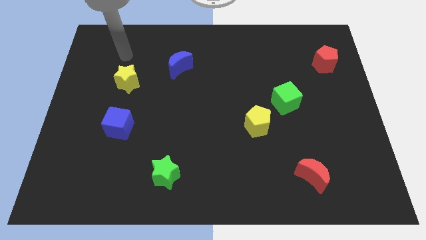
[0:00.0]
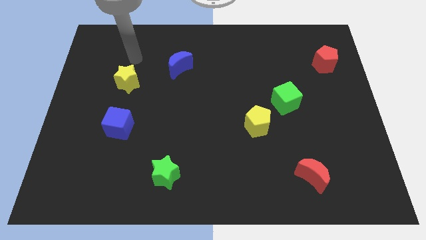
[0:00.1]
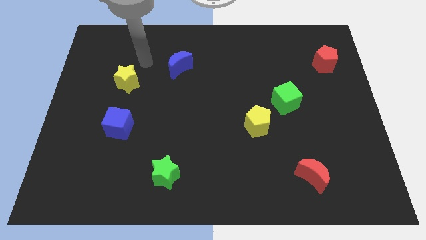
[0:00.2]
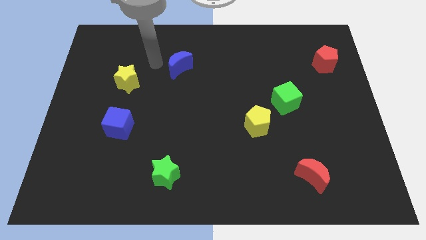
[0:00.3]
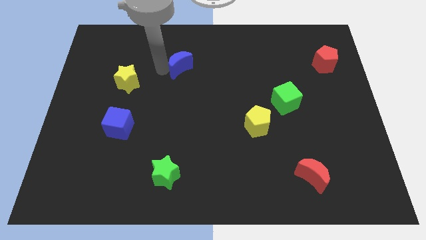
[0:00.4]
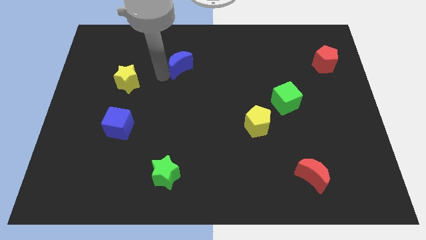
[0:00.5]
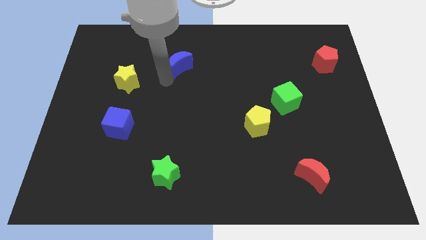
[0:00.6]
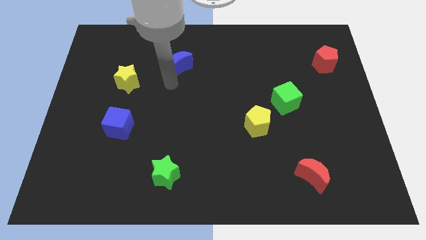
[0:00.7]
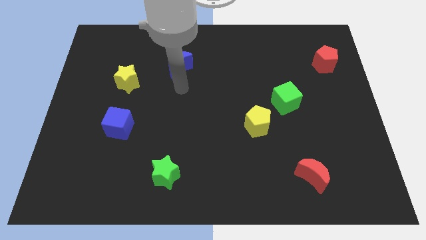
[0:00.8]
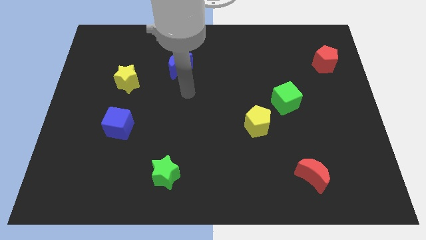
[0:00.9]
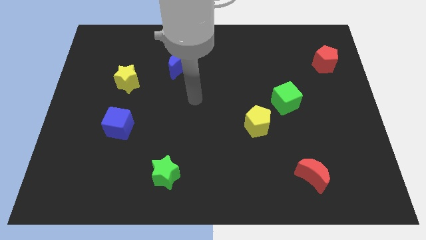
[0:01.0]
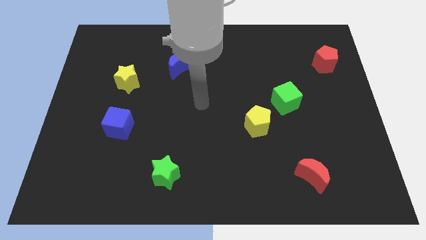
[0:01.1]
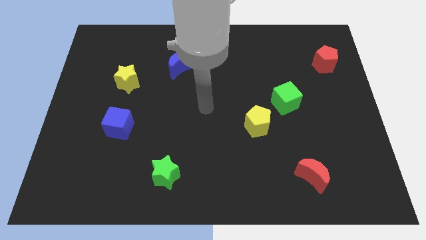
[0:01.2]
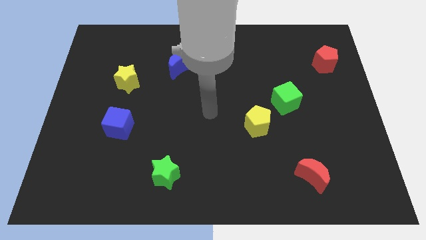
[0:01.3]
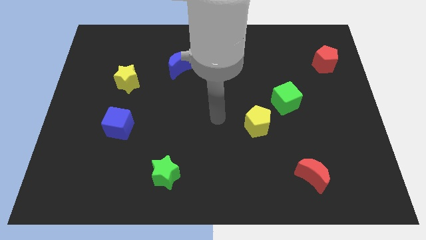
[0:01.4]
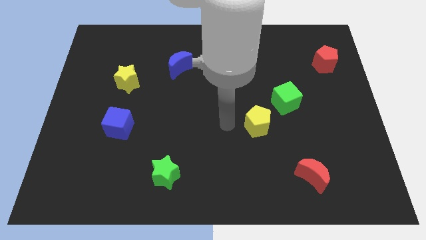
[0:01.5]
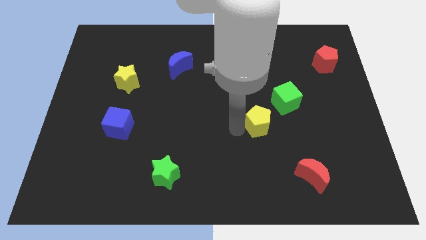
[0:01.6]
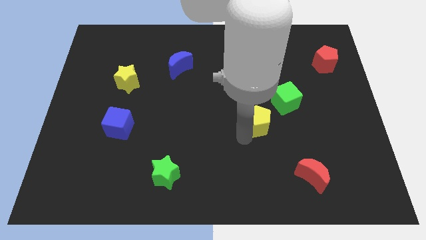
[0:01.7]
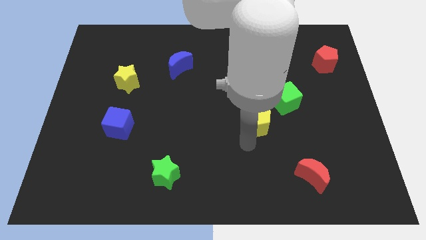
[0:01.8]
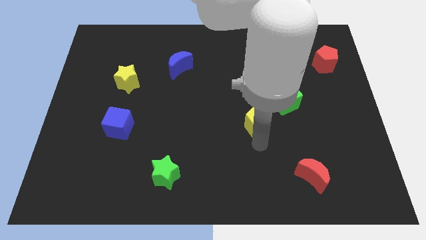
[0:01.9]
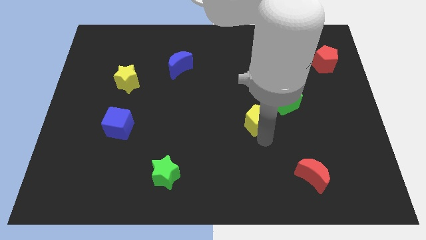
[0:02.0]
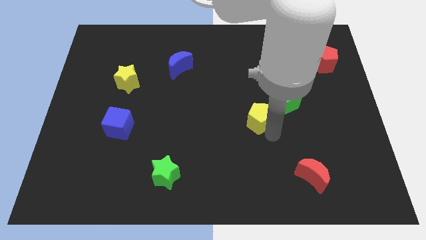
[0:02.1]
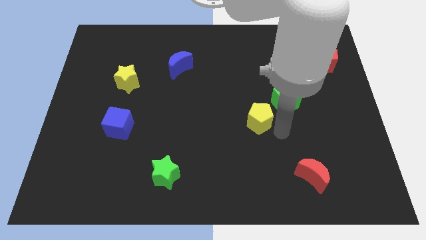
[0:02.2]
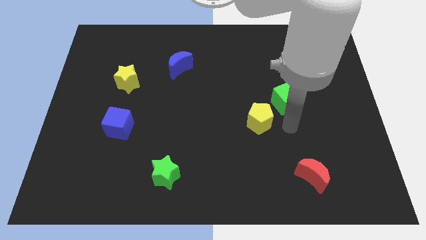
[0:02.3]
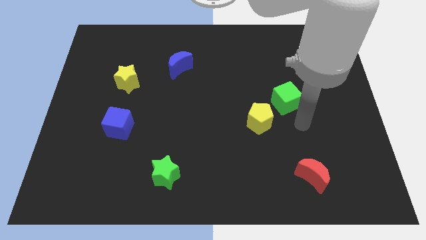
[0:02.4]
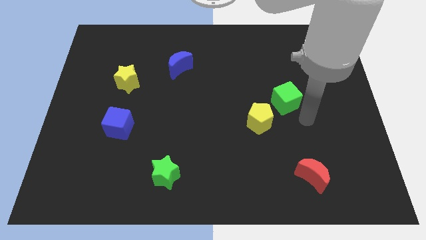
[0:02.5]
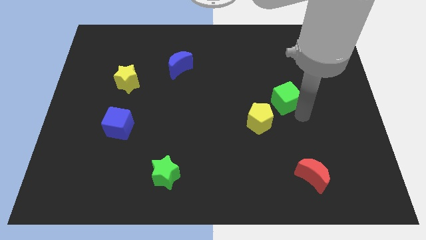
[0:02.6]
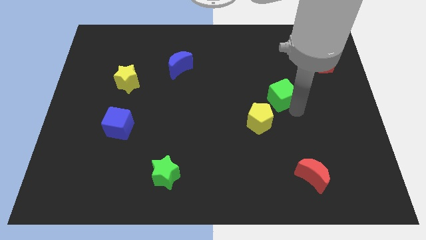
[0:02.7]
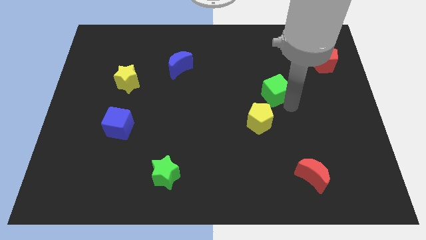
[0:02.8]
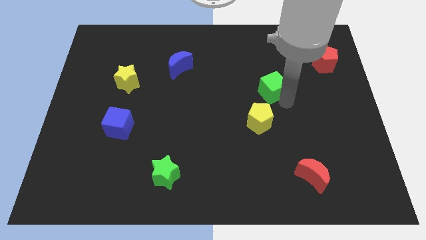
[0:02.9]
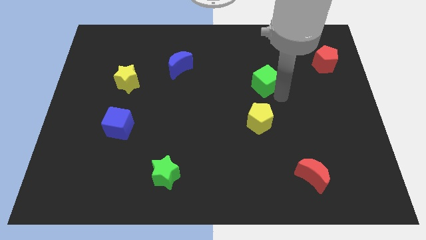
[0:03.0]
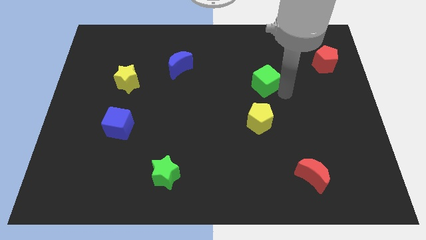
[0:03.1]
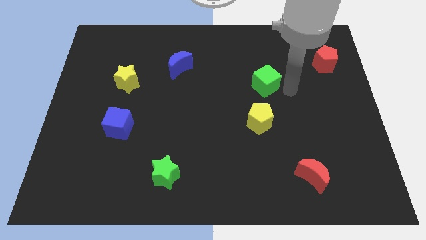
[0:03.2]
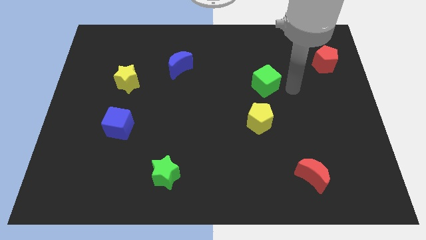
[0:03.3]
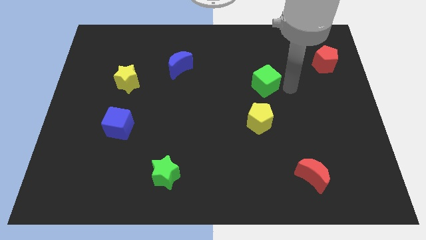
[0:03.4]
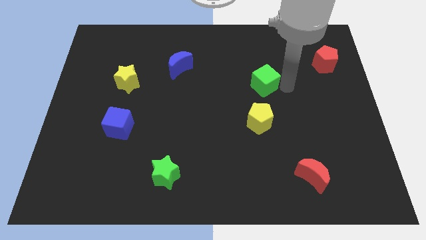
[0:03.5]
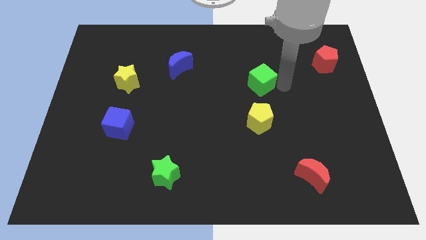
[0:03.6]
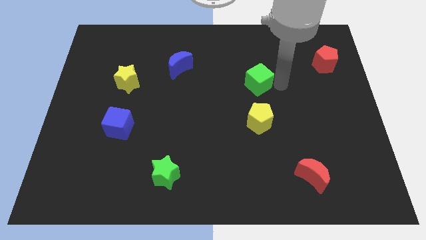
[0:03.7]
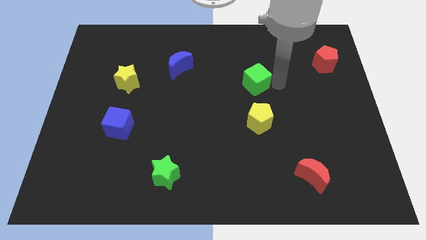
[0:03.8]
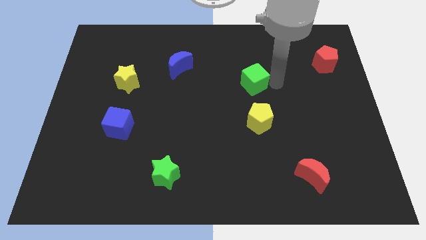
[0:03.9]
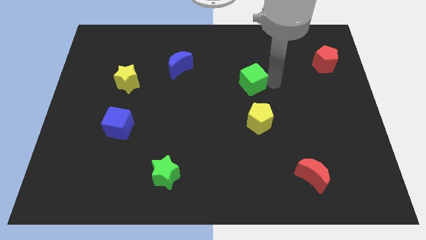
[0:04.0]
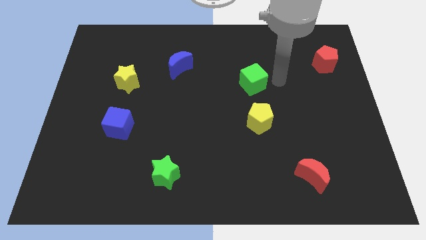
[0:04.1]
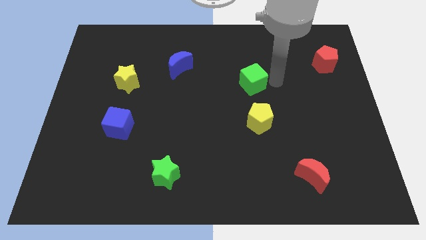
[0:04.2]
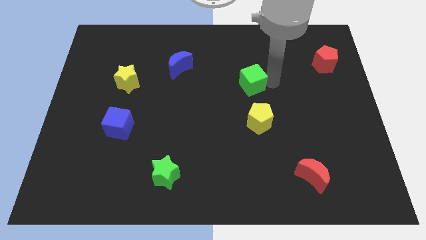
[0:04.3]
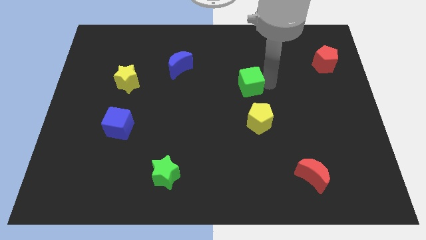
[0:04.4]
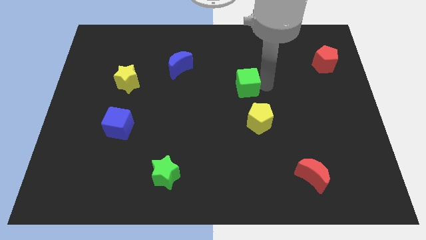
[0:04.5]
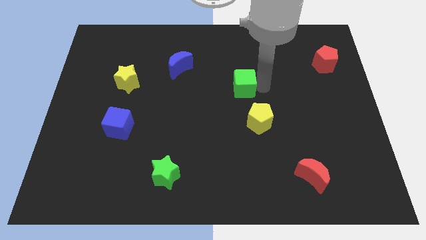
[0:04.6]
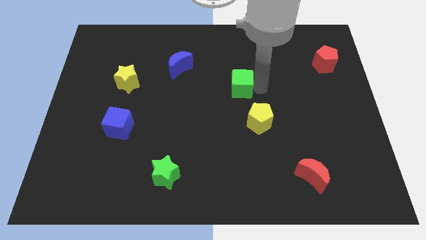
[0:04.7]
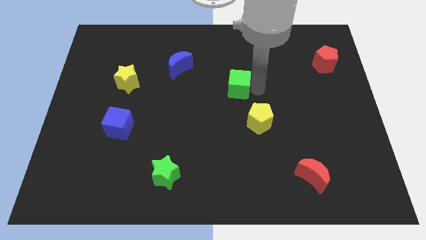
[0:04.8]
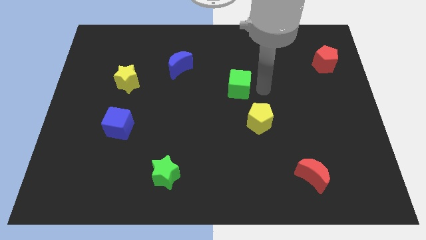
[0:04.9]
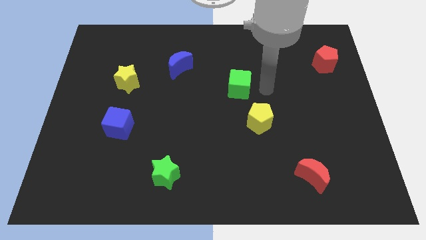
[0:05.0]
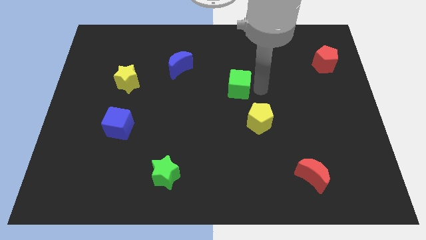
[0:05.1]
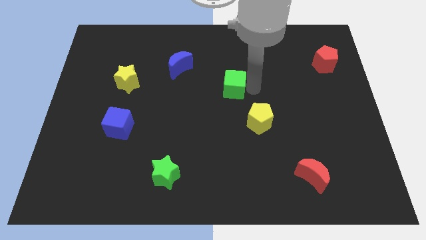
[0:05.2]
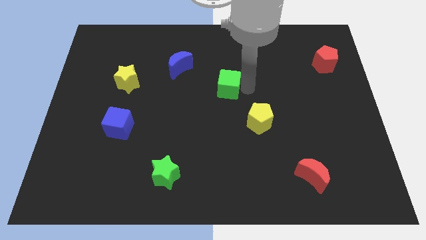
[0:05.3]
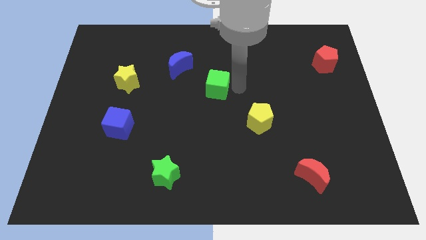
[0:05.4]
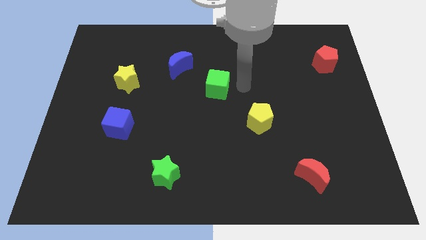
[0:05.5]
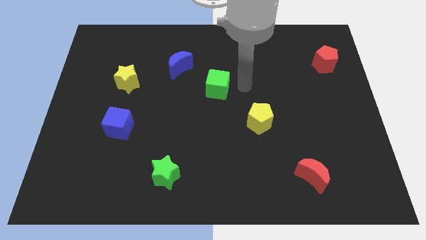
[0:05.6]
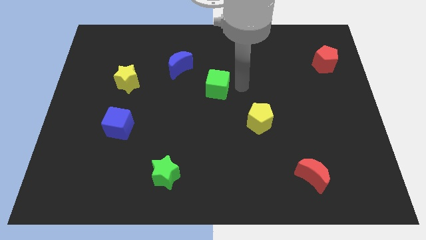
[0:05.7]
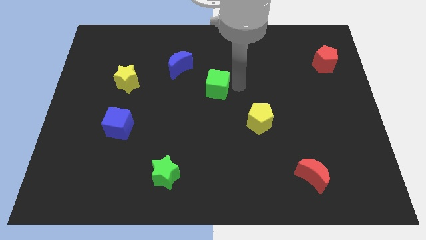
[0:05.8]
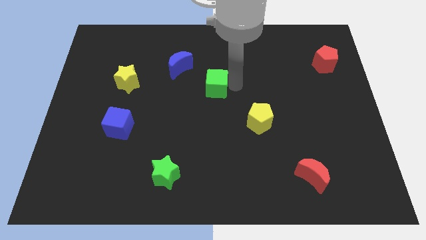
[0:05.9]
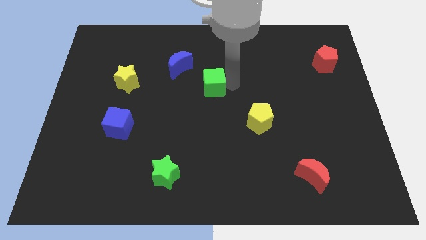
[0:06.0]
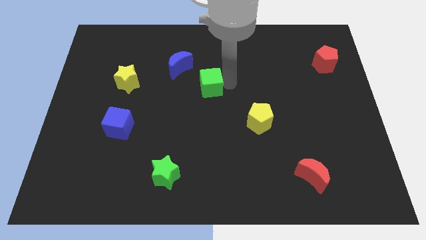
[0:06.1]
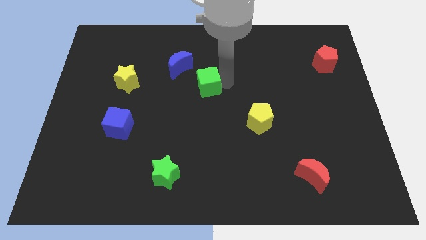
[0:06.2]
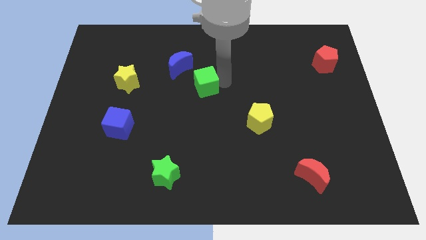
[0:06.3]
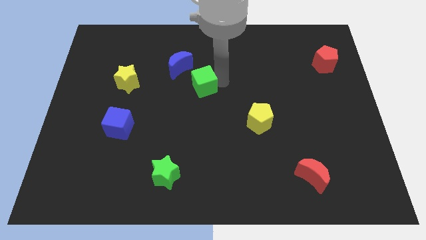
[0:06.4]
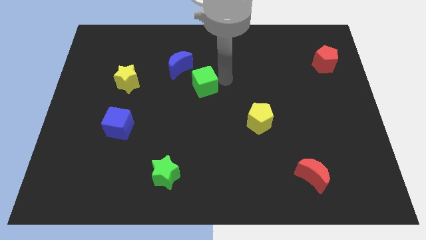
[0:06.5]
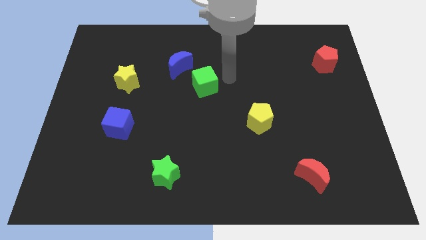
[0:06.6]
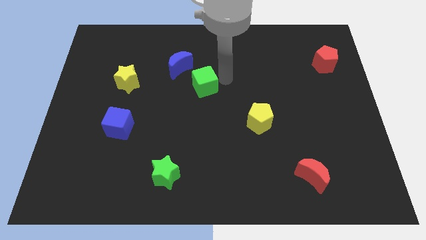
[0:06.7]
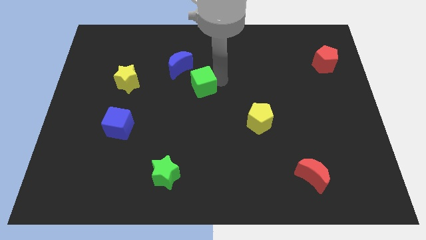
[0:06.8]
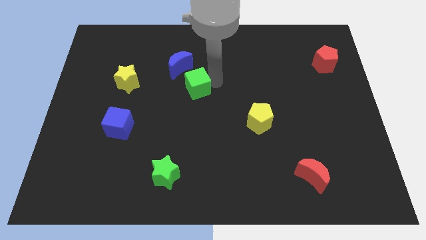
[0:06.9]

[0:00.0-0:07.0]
slide the green cube left

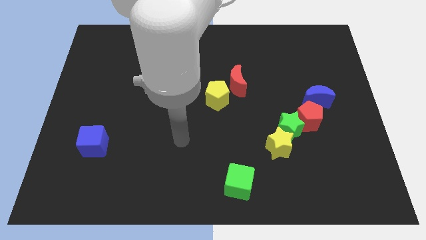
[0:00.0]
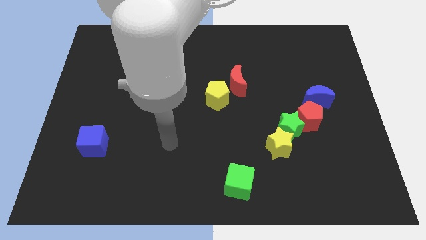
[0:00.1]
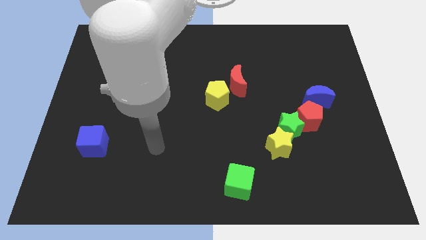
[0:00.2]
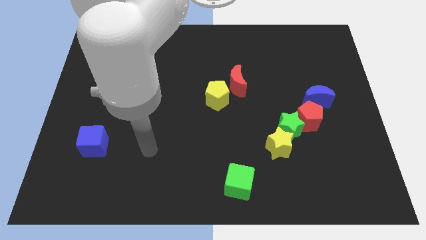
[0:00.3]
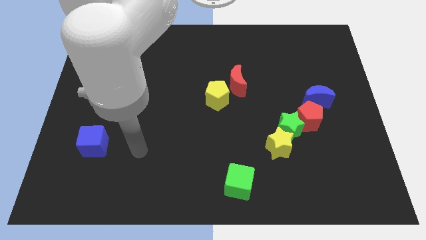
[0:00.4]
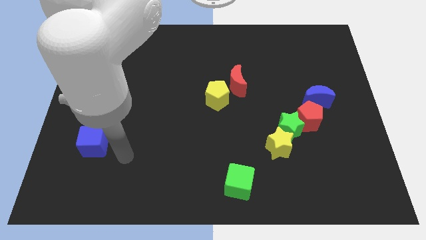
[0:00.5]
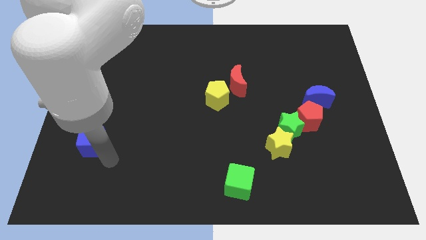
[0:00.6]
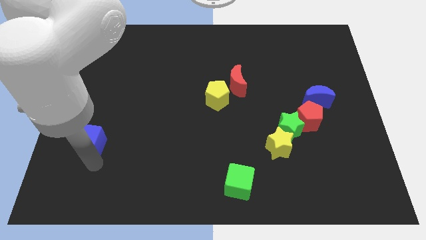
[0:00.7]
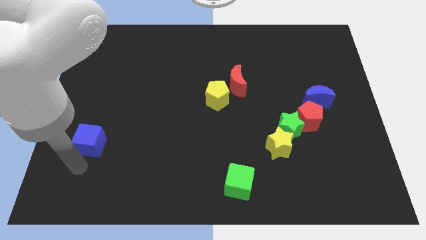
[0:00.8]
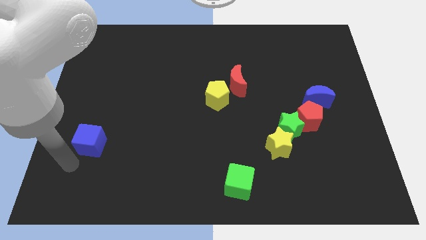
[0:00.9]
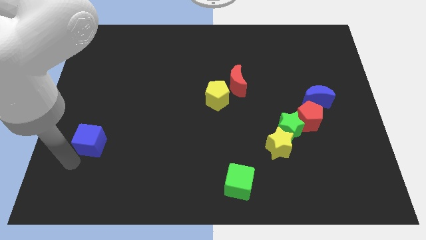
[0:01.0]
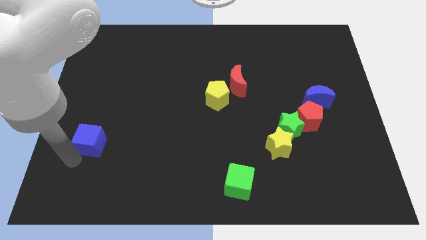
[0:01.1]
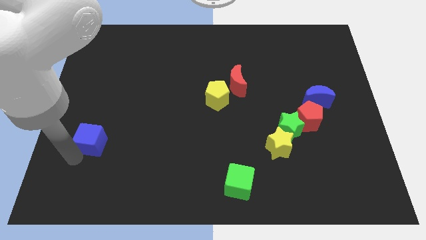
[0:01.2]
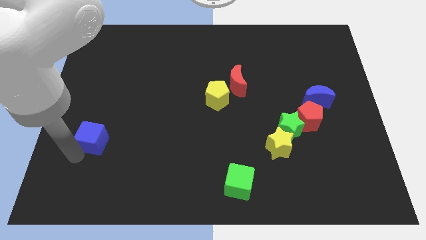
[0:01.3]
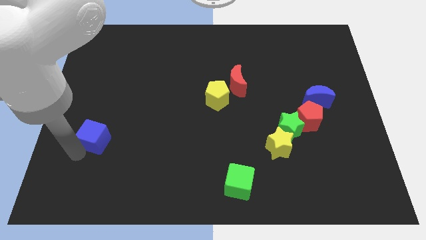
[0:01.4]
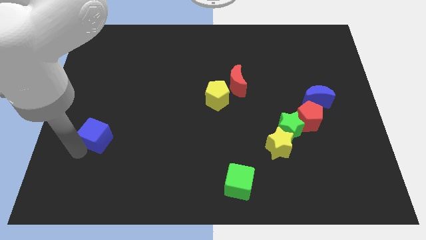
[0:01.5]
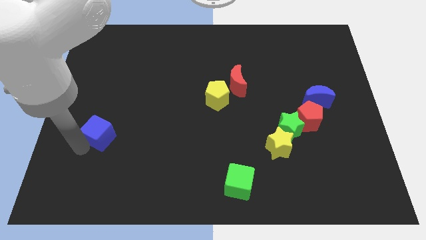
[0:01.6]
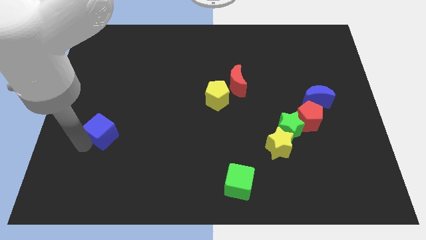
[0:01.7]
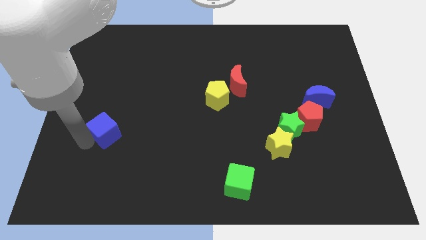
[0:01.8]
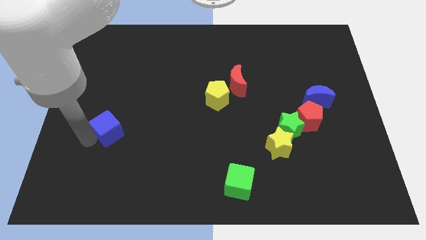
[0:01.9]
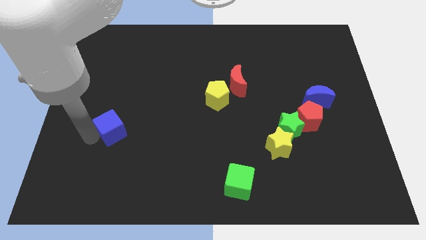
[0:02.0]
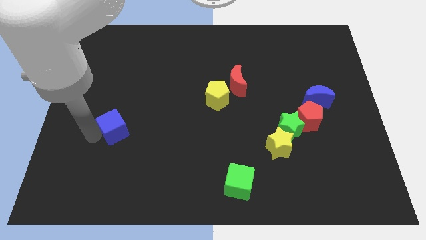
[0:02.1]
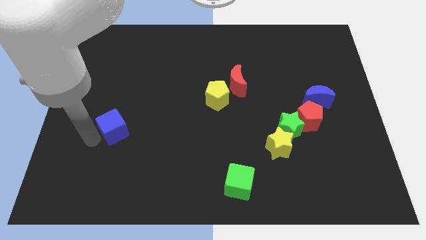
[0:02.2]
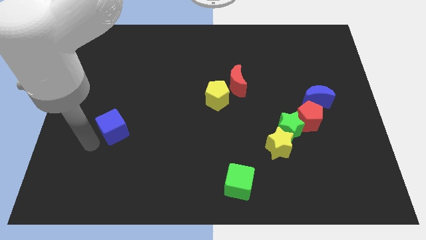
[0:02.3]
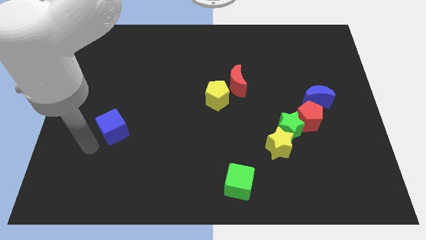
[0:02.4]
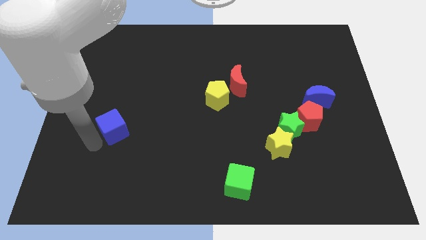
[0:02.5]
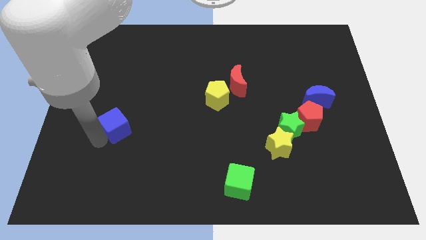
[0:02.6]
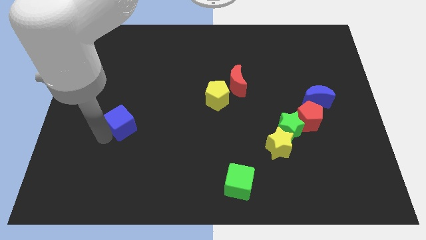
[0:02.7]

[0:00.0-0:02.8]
slightly push the blue cube diagonally up and to the right
